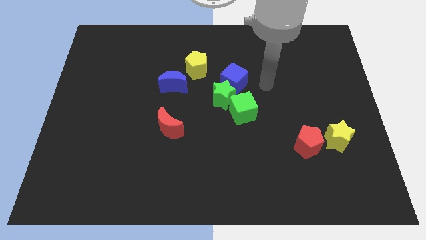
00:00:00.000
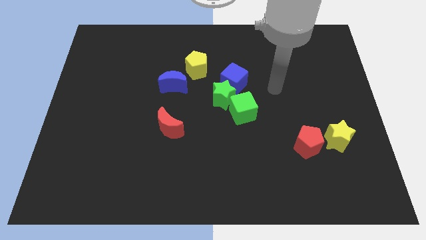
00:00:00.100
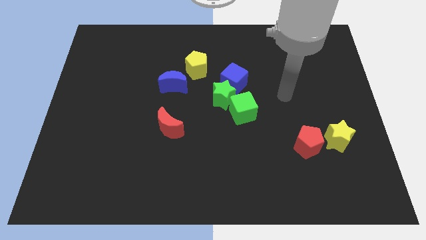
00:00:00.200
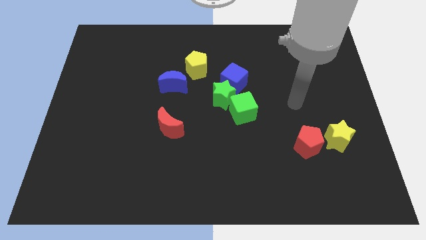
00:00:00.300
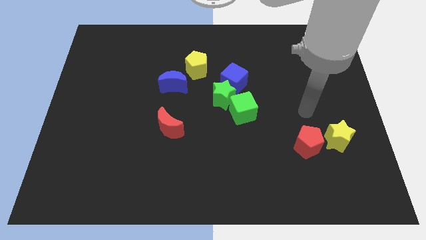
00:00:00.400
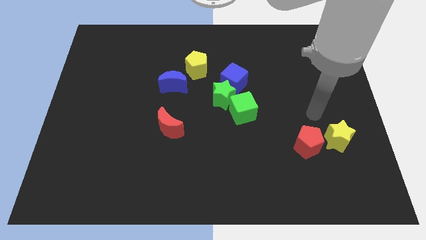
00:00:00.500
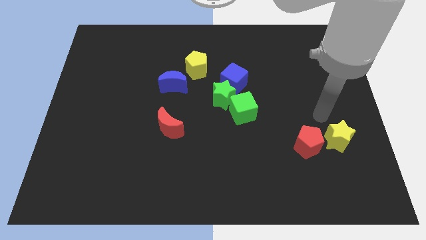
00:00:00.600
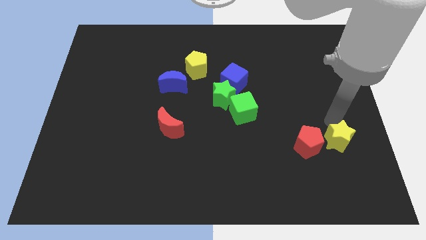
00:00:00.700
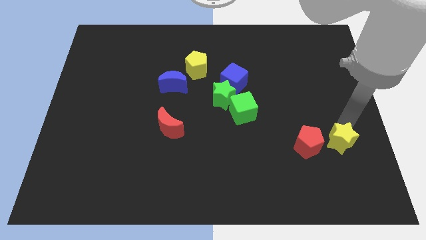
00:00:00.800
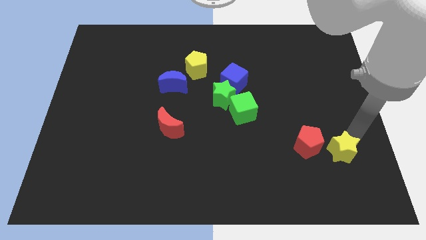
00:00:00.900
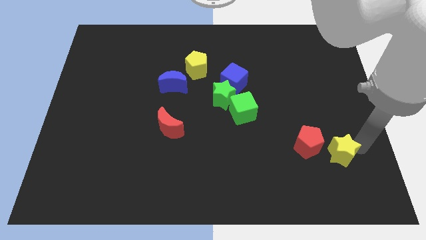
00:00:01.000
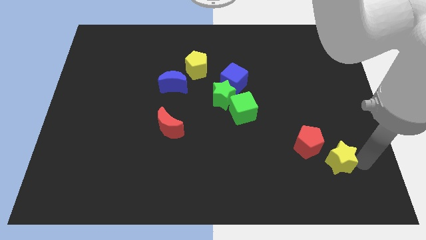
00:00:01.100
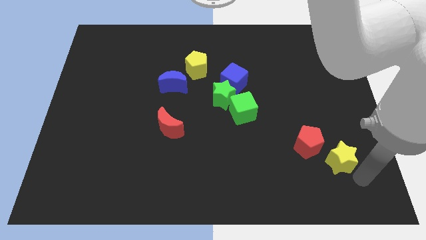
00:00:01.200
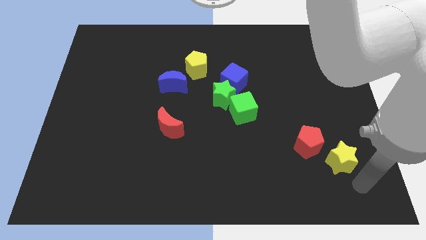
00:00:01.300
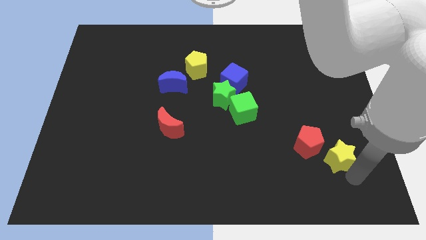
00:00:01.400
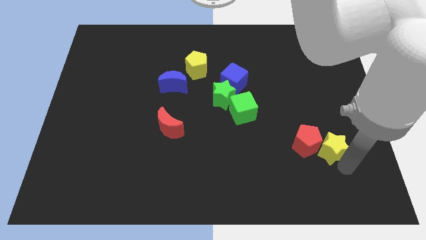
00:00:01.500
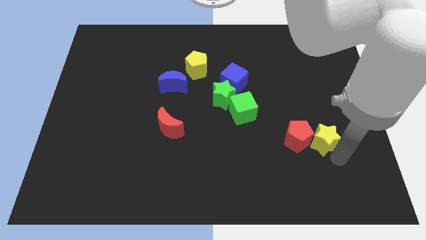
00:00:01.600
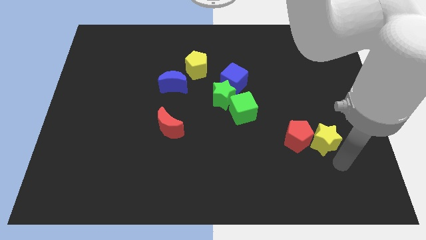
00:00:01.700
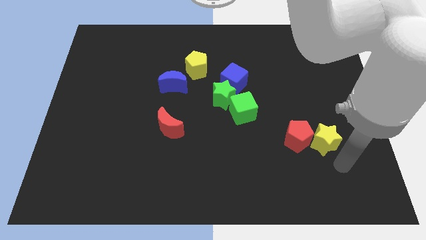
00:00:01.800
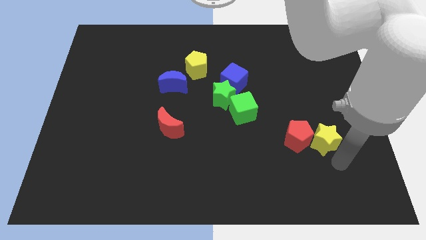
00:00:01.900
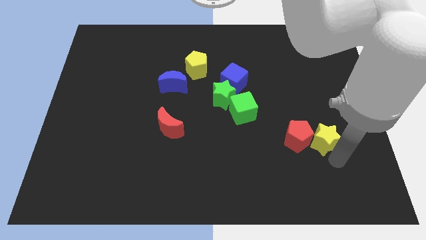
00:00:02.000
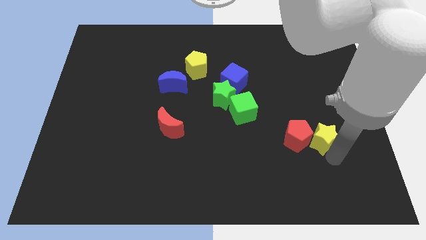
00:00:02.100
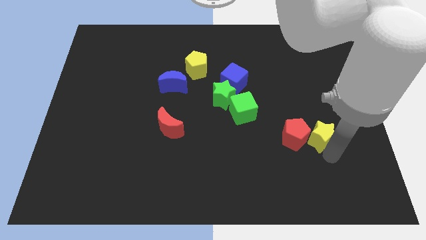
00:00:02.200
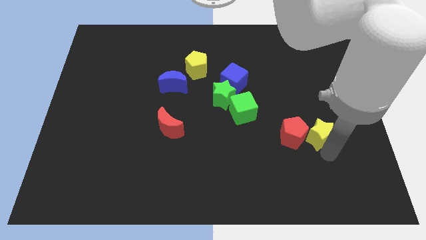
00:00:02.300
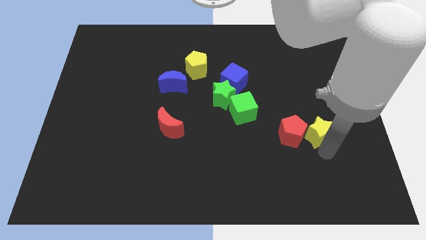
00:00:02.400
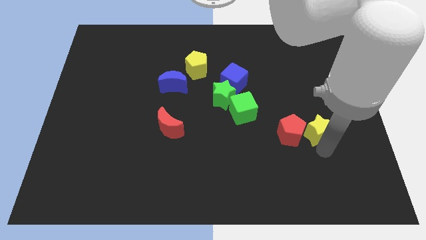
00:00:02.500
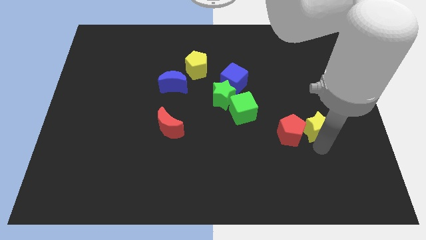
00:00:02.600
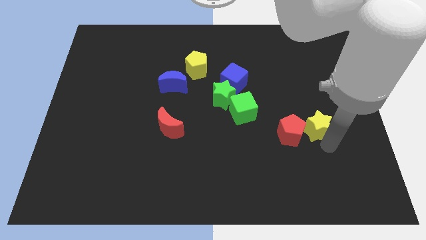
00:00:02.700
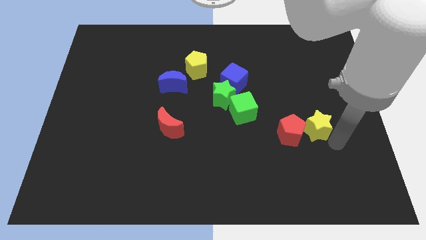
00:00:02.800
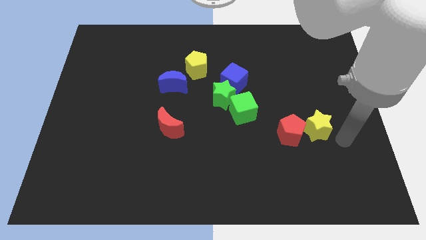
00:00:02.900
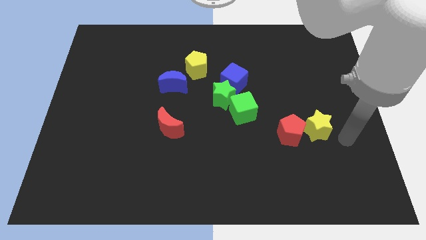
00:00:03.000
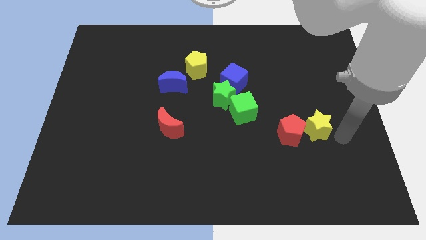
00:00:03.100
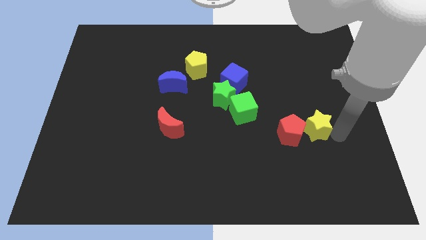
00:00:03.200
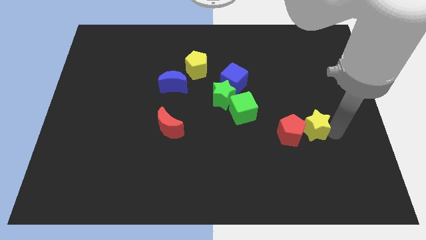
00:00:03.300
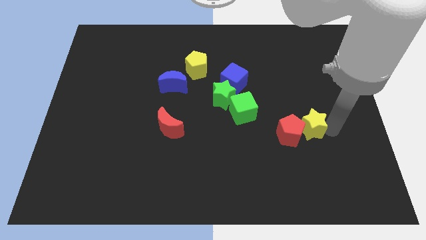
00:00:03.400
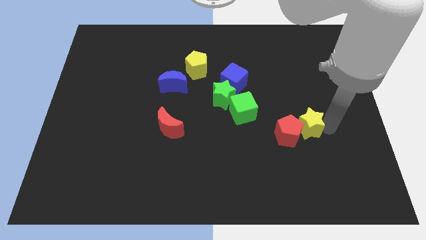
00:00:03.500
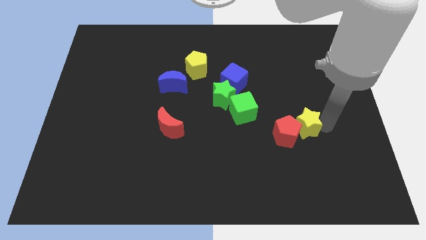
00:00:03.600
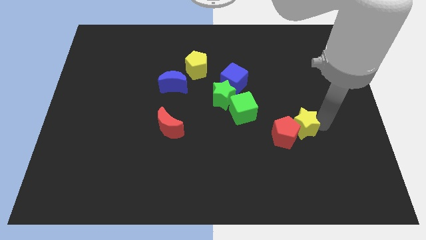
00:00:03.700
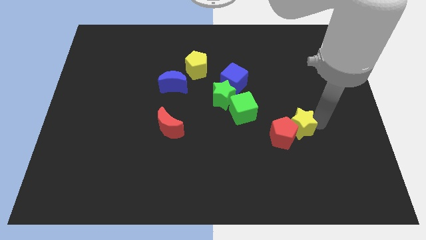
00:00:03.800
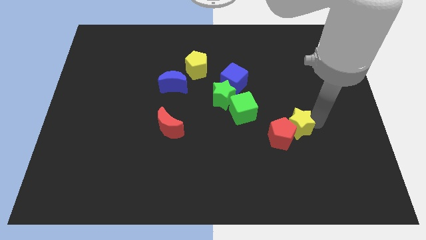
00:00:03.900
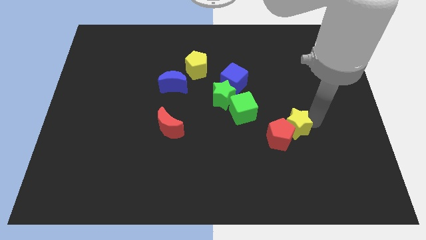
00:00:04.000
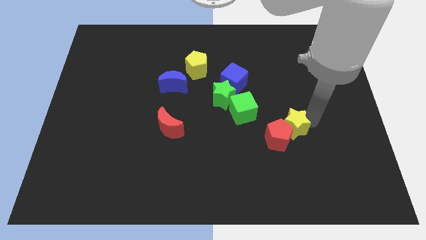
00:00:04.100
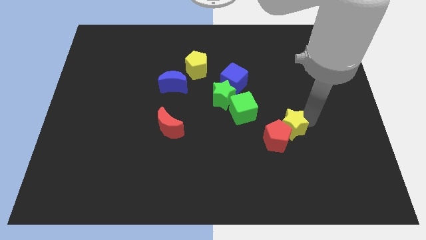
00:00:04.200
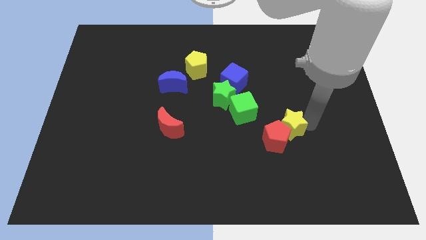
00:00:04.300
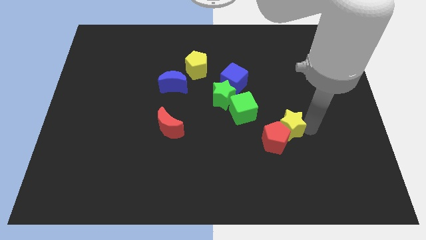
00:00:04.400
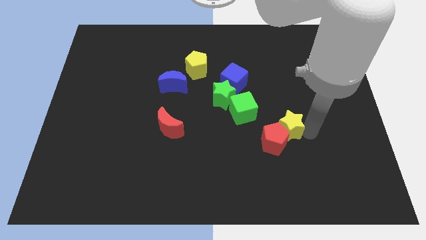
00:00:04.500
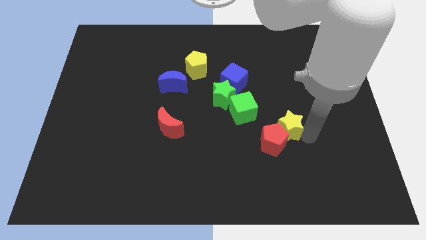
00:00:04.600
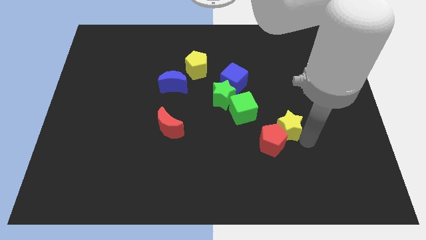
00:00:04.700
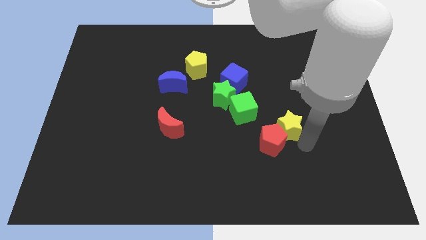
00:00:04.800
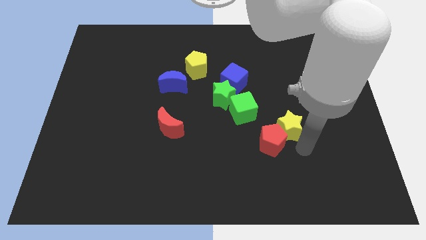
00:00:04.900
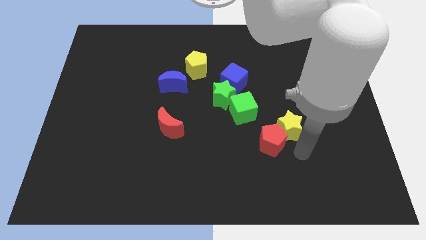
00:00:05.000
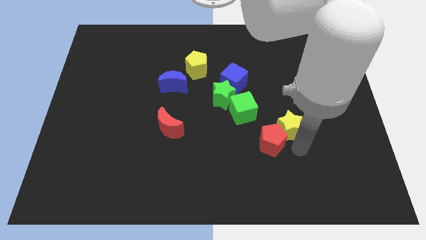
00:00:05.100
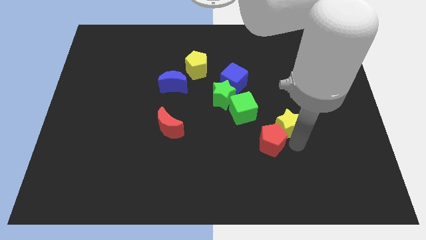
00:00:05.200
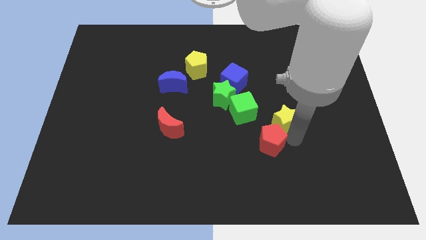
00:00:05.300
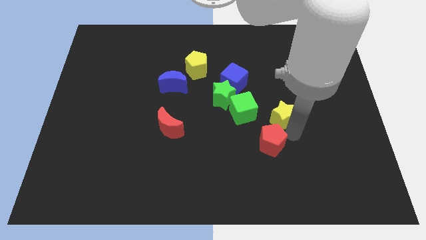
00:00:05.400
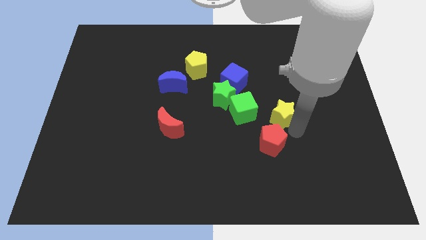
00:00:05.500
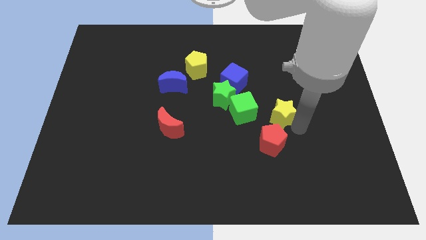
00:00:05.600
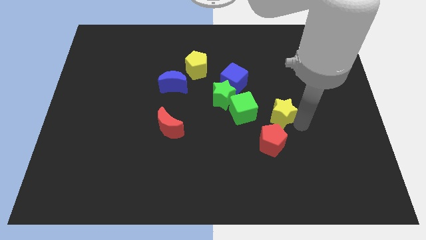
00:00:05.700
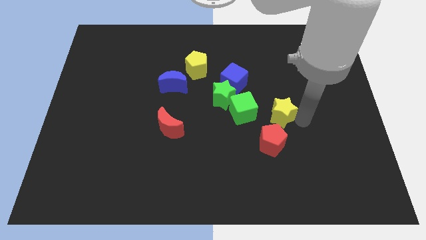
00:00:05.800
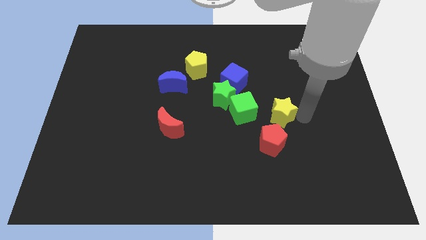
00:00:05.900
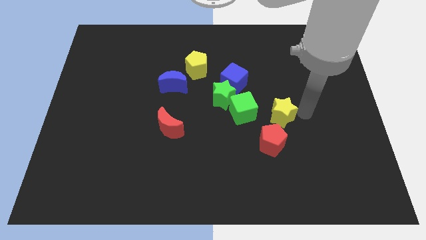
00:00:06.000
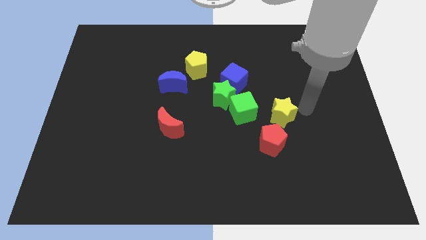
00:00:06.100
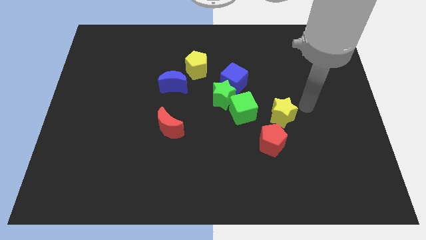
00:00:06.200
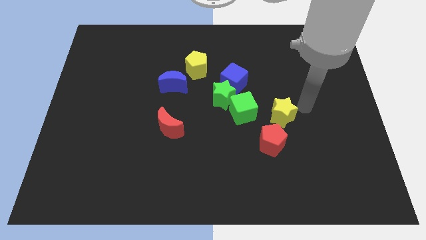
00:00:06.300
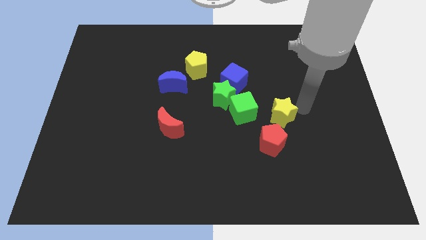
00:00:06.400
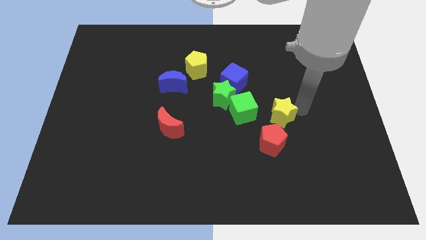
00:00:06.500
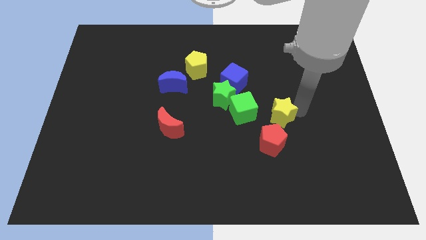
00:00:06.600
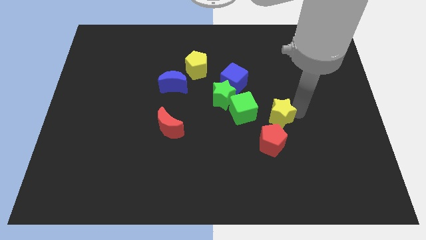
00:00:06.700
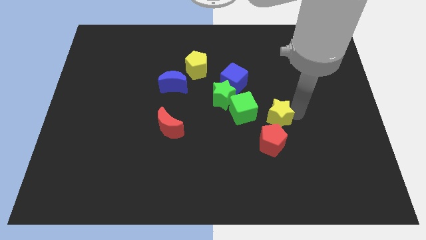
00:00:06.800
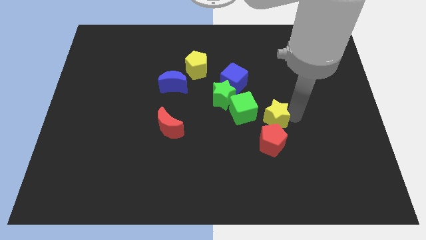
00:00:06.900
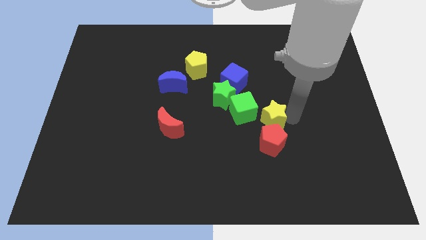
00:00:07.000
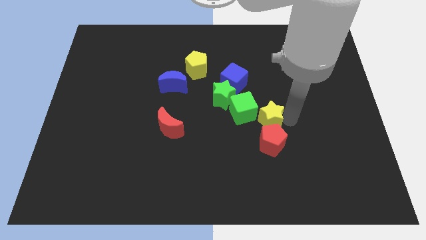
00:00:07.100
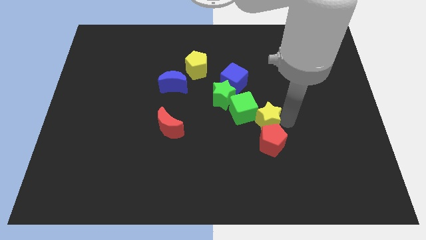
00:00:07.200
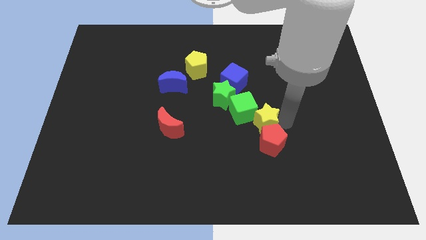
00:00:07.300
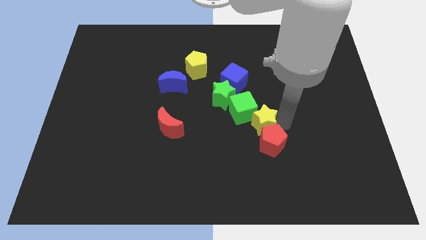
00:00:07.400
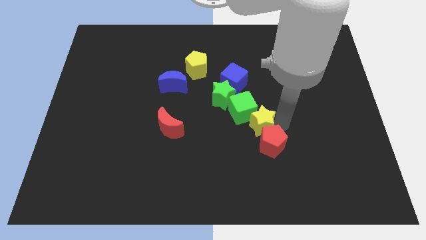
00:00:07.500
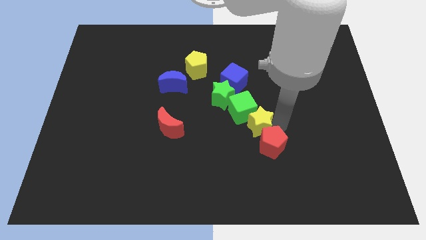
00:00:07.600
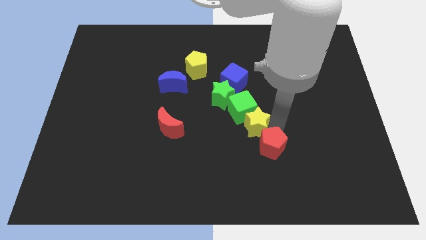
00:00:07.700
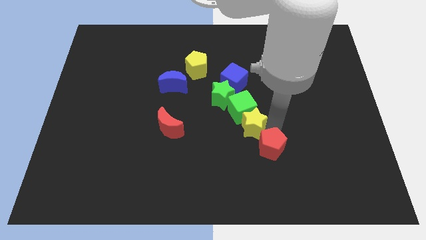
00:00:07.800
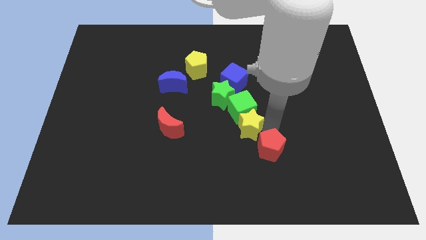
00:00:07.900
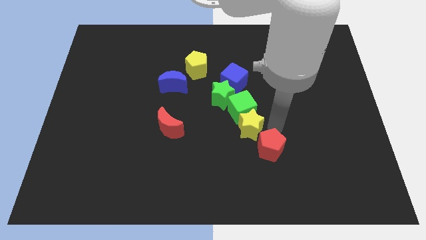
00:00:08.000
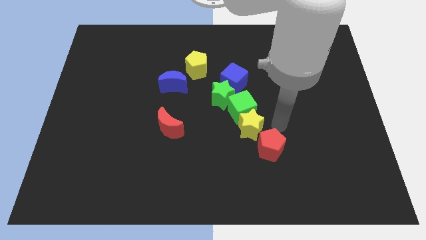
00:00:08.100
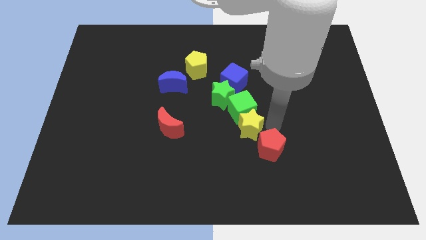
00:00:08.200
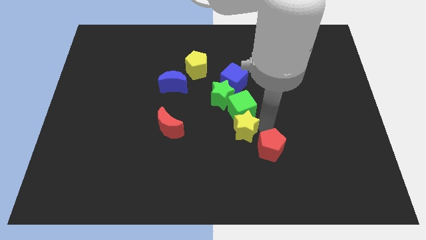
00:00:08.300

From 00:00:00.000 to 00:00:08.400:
slide the yellow star to the left
